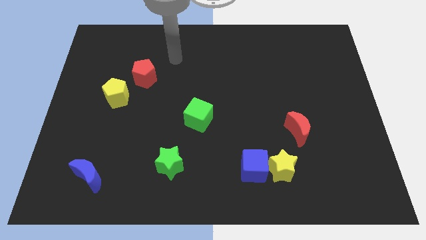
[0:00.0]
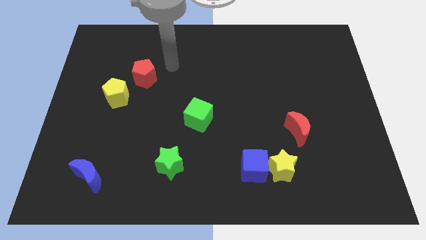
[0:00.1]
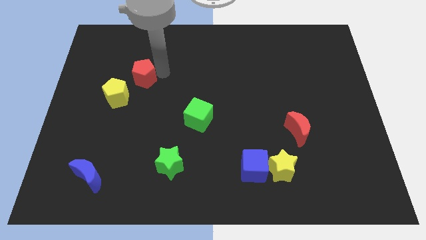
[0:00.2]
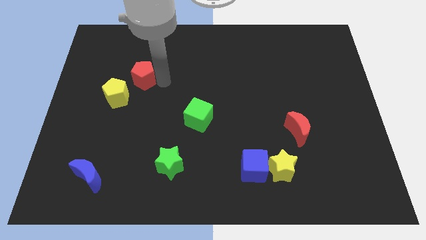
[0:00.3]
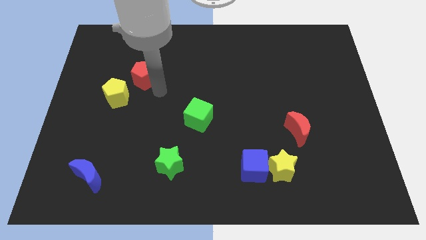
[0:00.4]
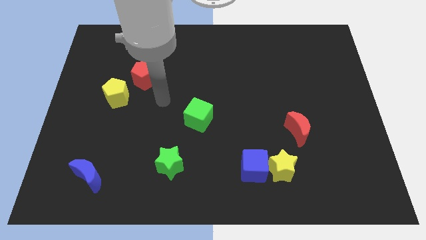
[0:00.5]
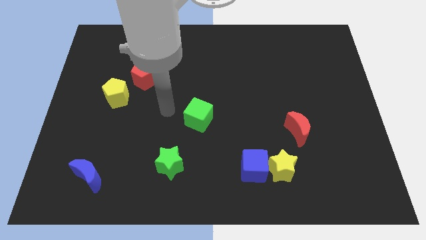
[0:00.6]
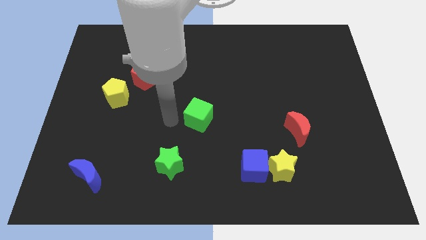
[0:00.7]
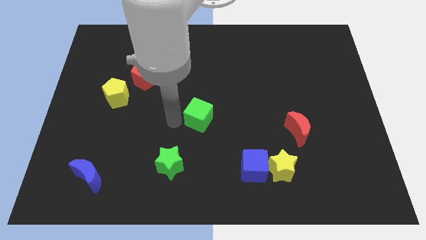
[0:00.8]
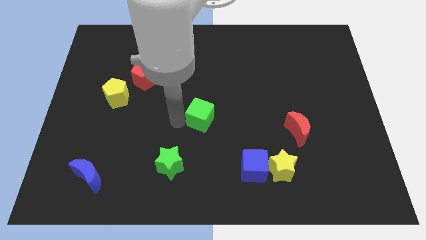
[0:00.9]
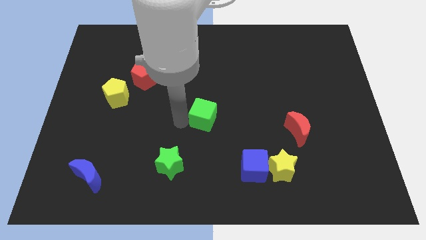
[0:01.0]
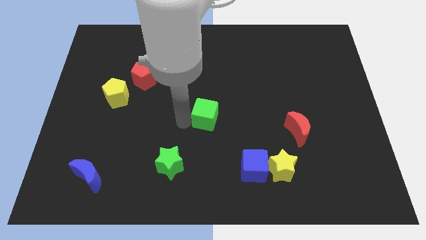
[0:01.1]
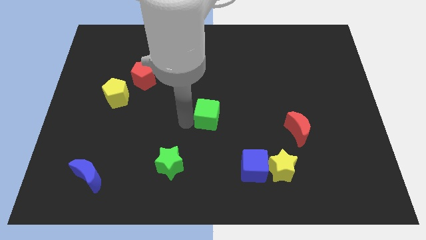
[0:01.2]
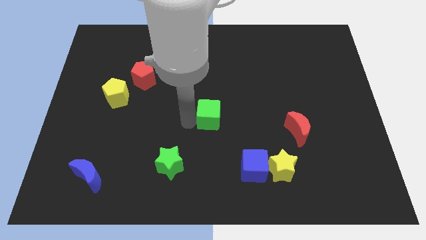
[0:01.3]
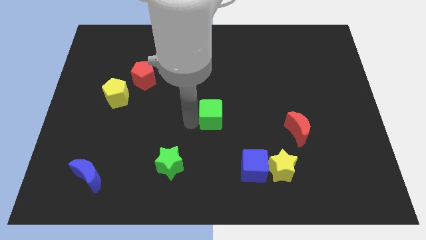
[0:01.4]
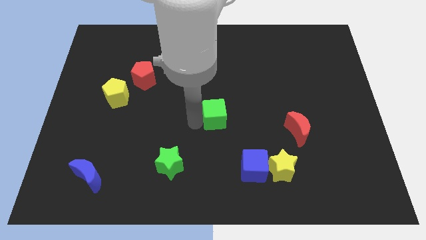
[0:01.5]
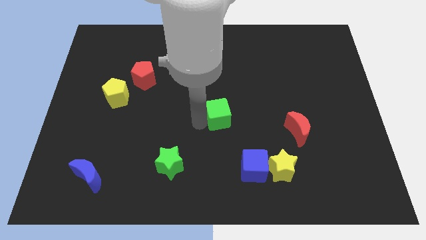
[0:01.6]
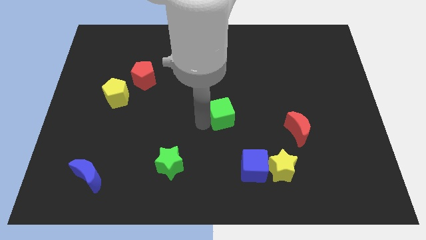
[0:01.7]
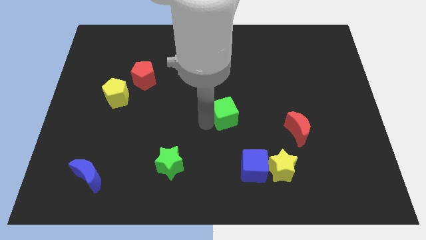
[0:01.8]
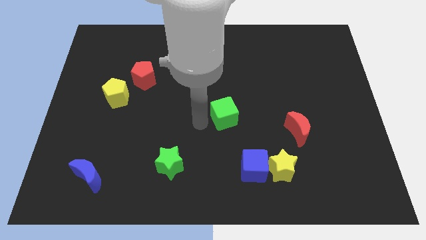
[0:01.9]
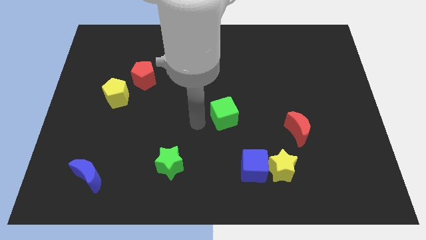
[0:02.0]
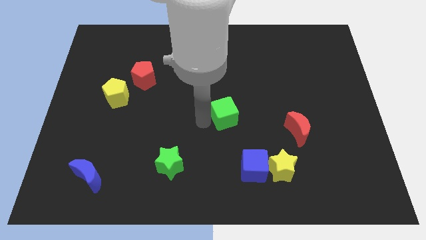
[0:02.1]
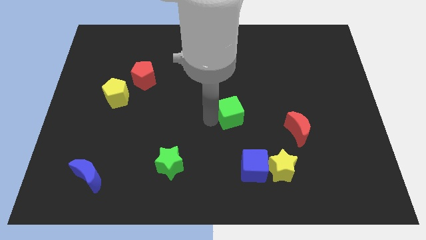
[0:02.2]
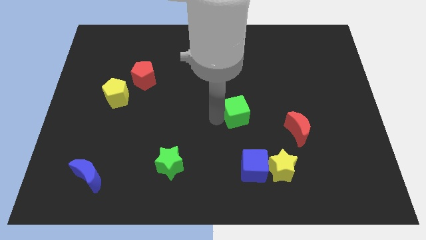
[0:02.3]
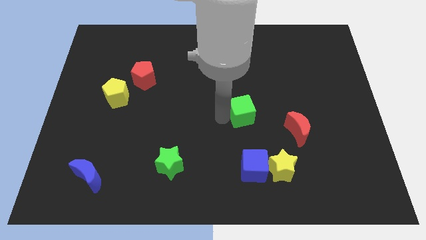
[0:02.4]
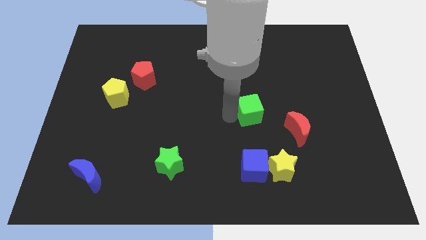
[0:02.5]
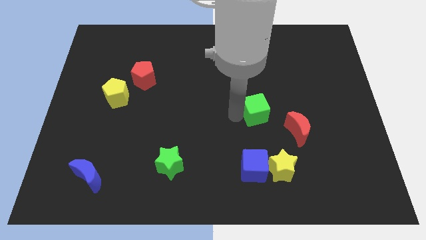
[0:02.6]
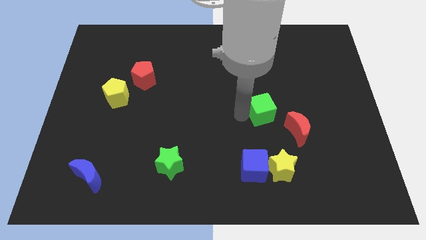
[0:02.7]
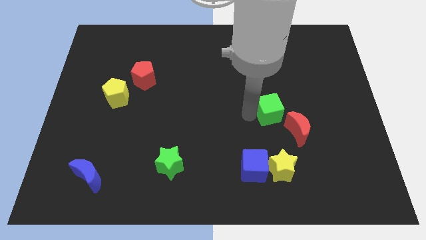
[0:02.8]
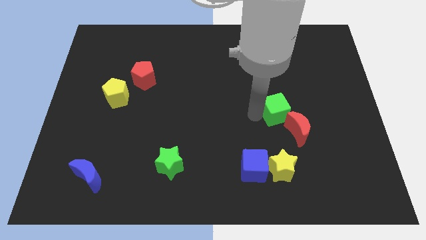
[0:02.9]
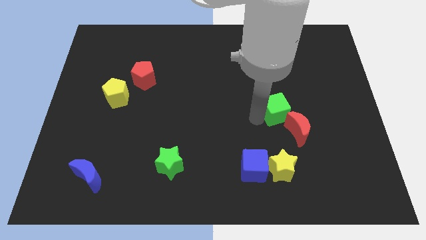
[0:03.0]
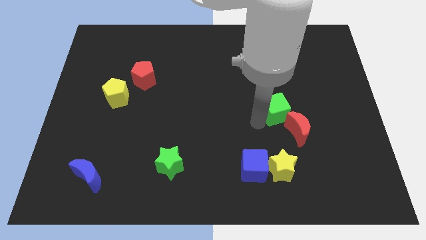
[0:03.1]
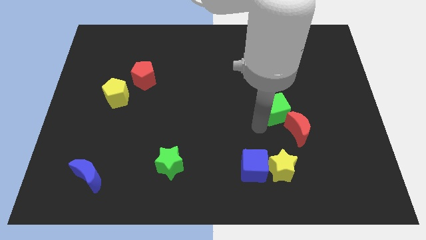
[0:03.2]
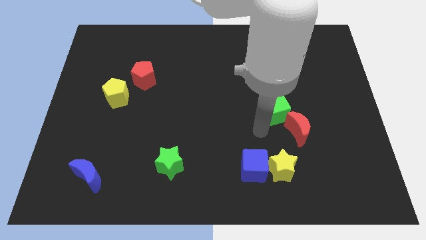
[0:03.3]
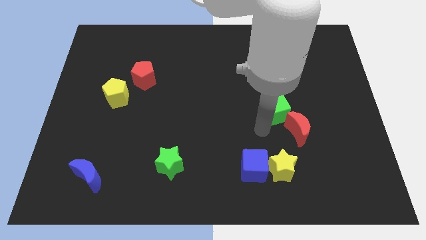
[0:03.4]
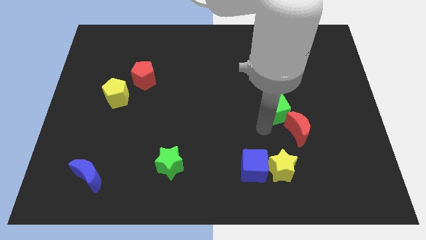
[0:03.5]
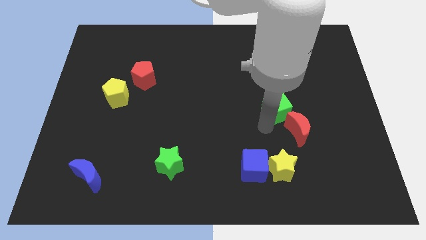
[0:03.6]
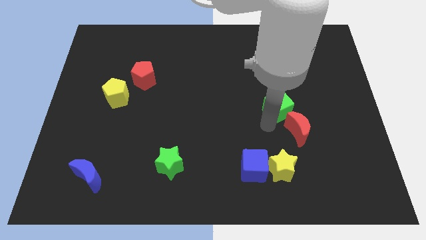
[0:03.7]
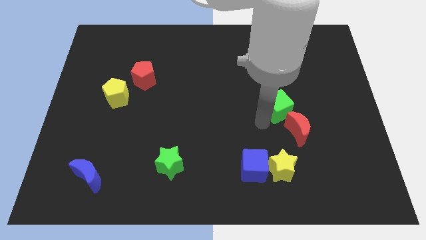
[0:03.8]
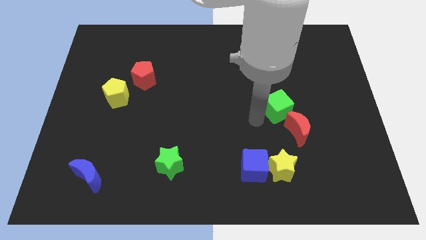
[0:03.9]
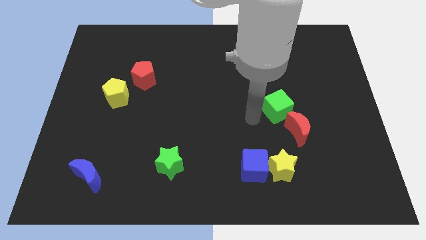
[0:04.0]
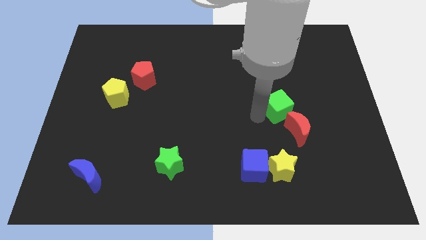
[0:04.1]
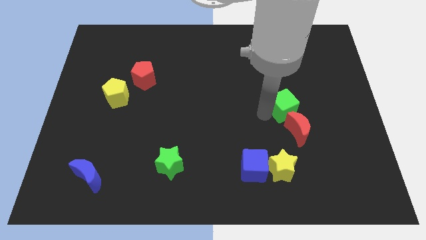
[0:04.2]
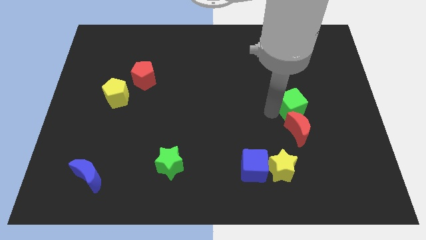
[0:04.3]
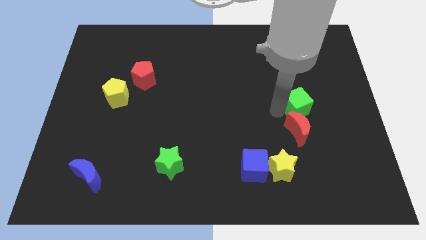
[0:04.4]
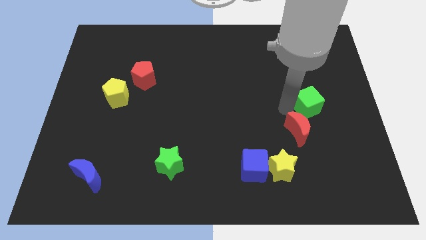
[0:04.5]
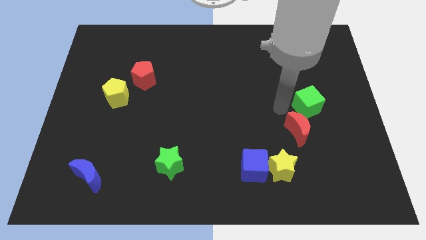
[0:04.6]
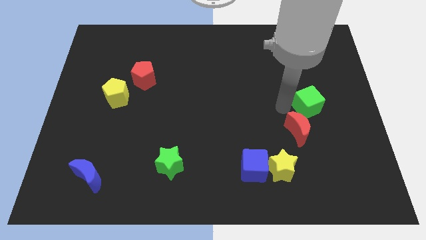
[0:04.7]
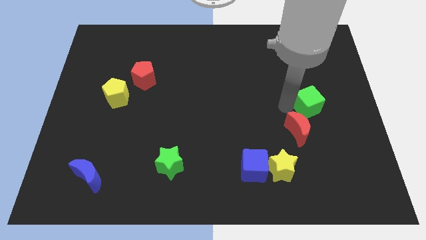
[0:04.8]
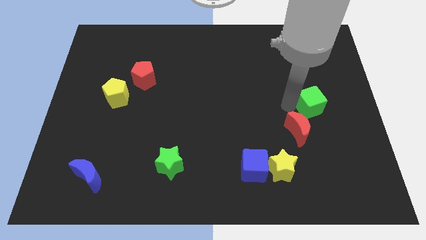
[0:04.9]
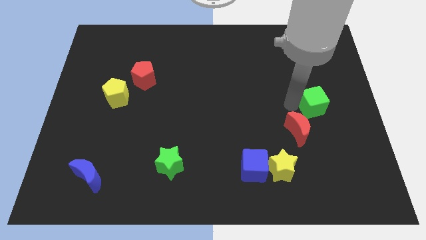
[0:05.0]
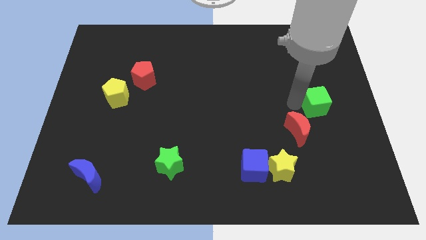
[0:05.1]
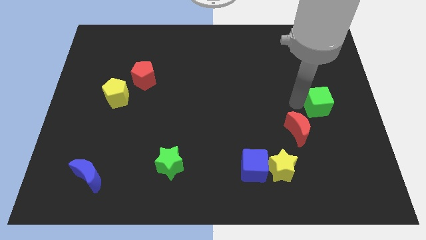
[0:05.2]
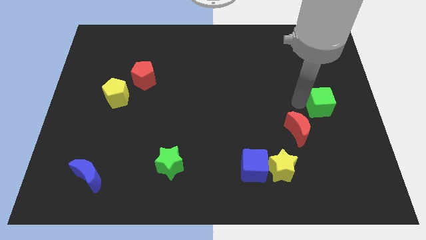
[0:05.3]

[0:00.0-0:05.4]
put the green cube to the right side of the board

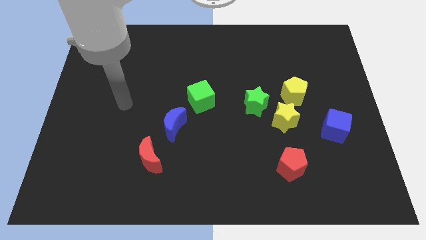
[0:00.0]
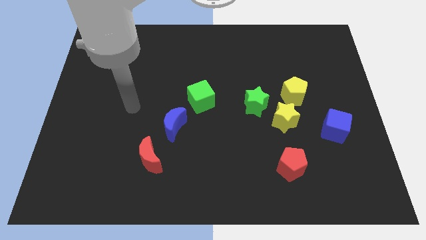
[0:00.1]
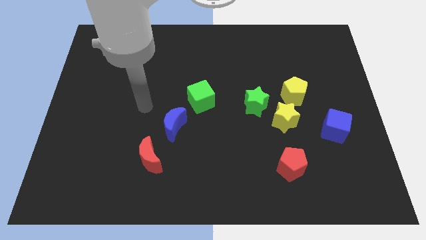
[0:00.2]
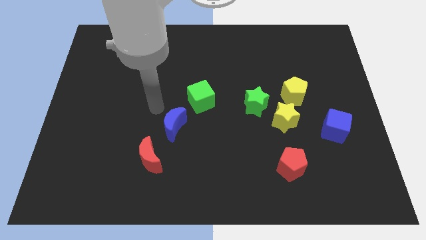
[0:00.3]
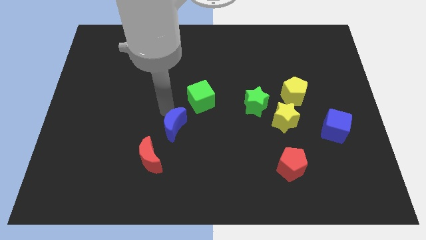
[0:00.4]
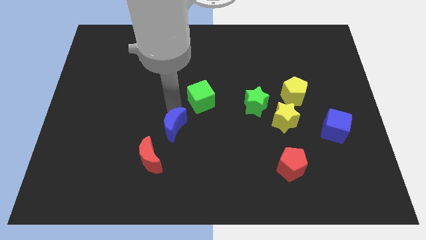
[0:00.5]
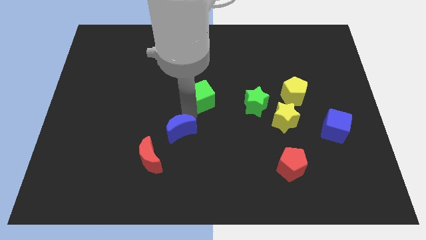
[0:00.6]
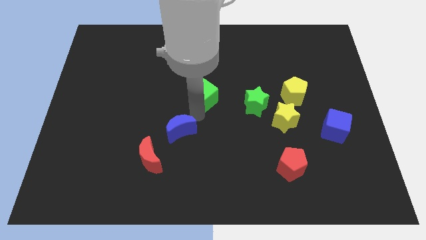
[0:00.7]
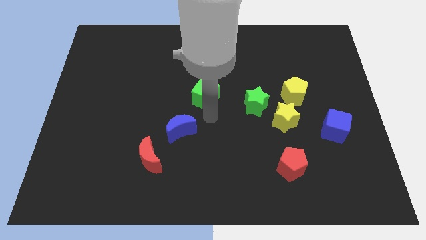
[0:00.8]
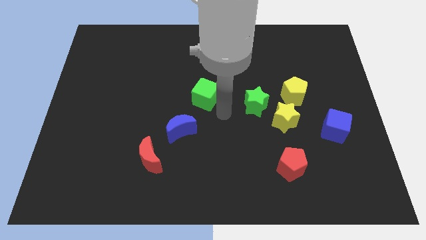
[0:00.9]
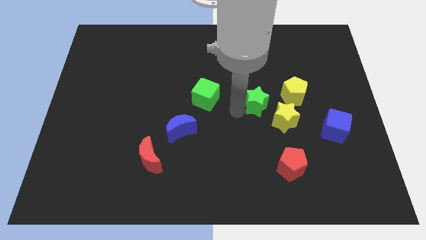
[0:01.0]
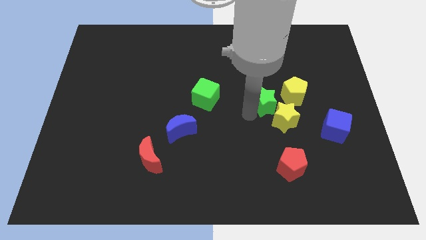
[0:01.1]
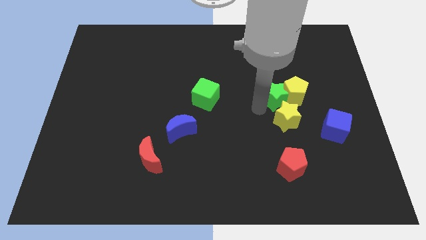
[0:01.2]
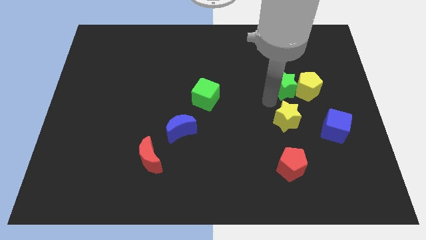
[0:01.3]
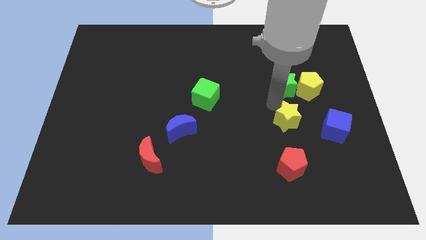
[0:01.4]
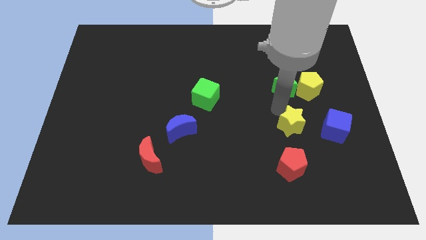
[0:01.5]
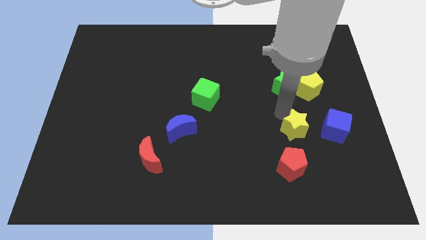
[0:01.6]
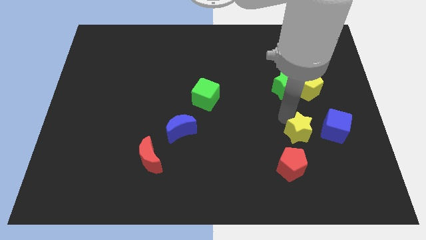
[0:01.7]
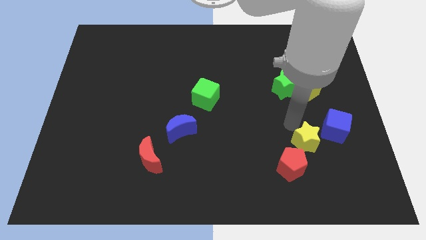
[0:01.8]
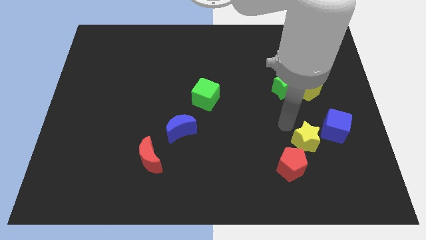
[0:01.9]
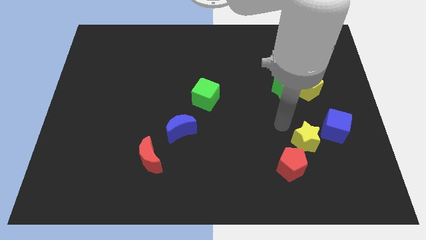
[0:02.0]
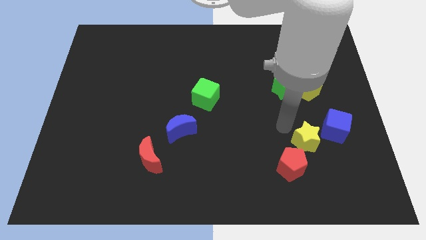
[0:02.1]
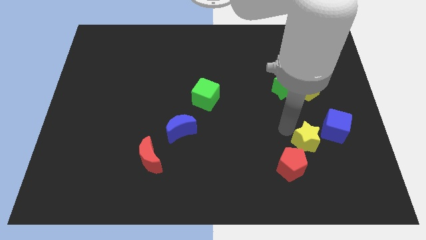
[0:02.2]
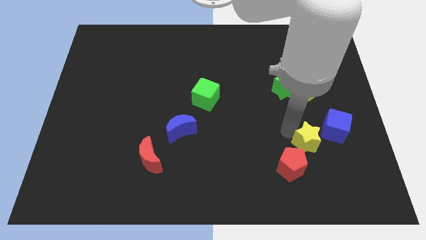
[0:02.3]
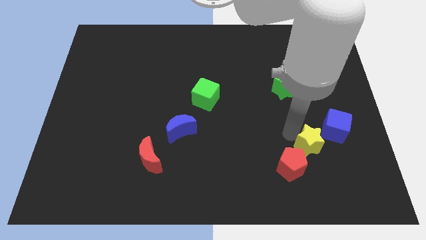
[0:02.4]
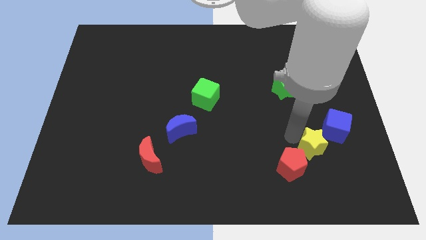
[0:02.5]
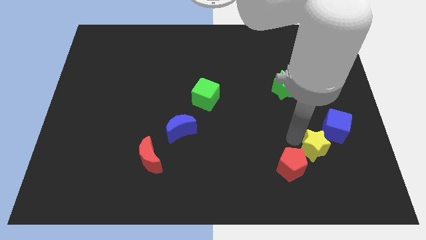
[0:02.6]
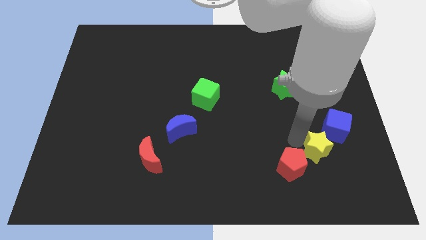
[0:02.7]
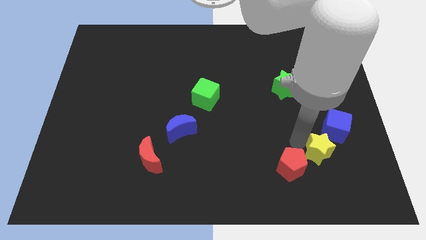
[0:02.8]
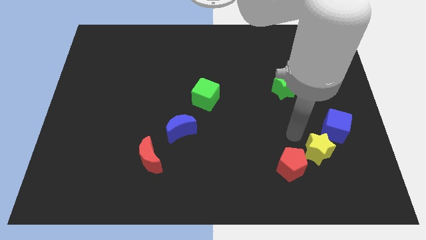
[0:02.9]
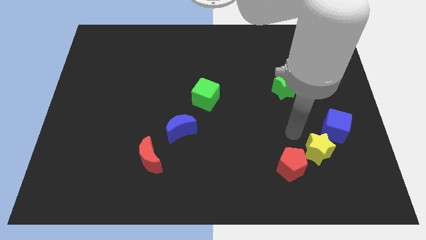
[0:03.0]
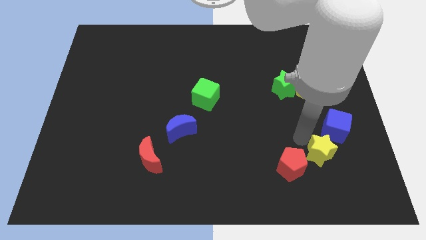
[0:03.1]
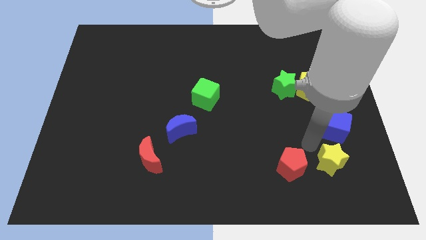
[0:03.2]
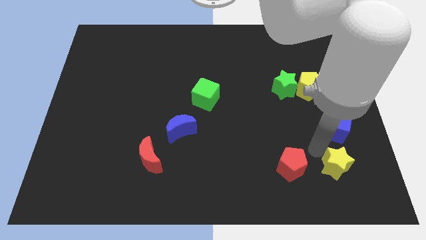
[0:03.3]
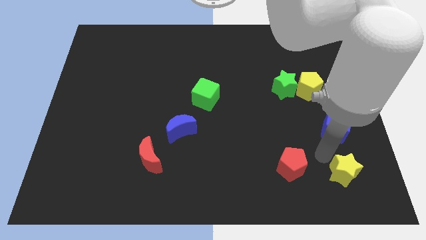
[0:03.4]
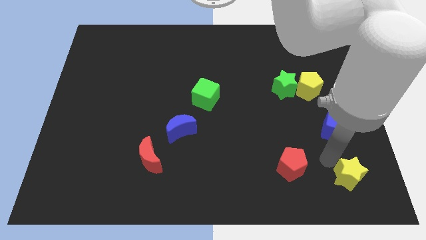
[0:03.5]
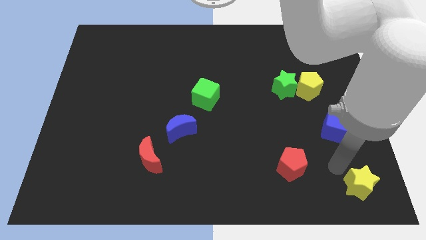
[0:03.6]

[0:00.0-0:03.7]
slide the yellow star to the lower right corner
